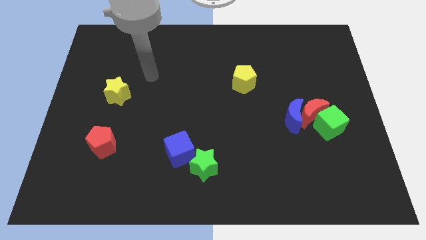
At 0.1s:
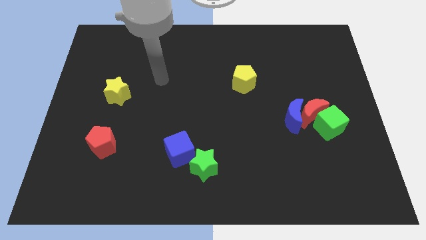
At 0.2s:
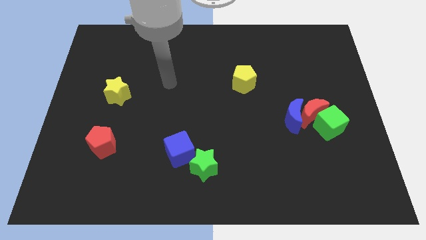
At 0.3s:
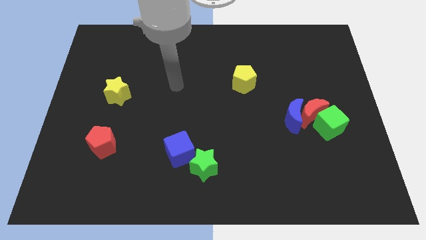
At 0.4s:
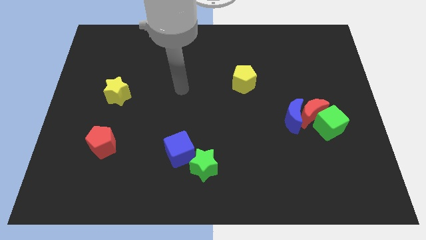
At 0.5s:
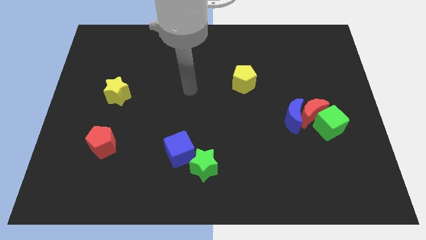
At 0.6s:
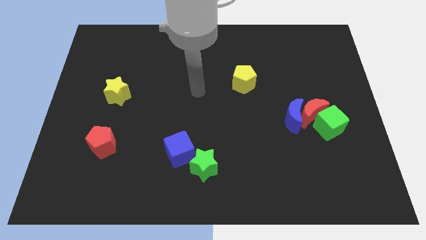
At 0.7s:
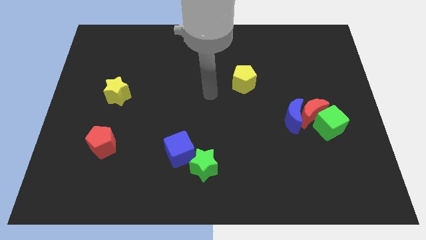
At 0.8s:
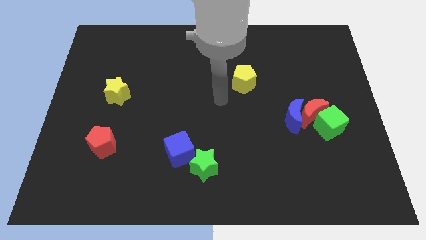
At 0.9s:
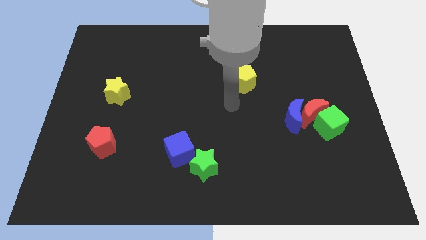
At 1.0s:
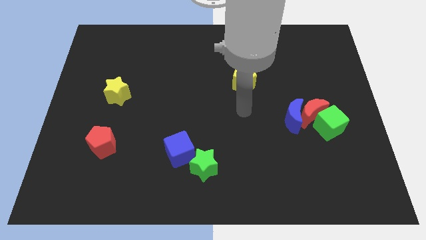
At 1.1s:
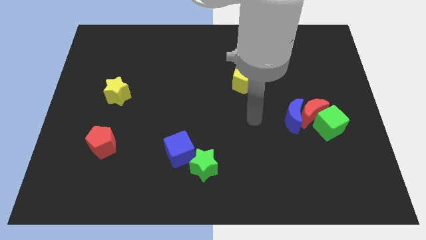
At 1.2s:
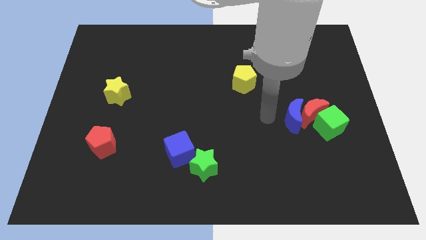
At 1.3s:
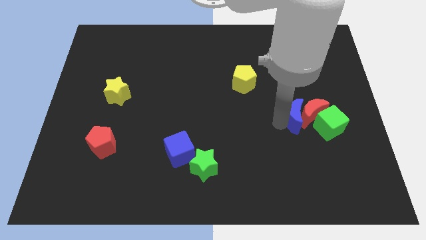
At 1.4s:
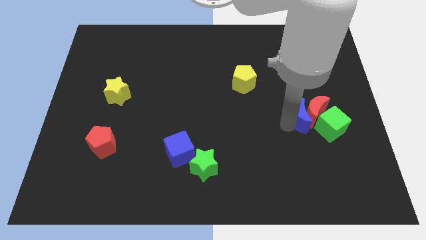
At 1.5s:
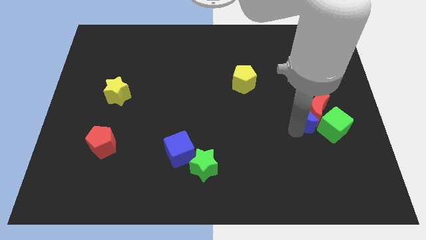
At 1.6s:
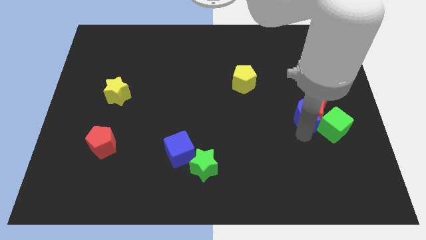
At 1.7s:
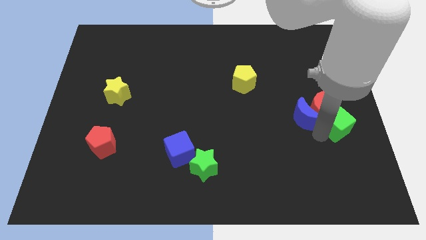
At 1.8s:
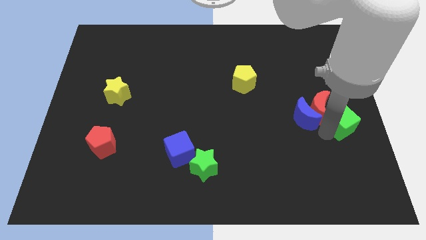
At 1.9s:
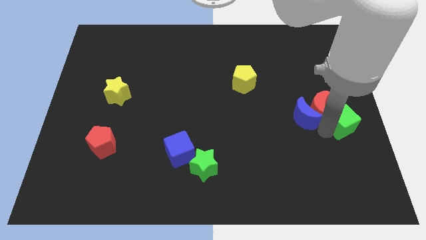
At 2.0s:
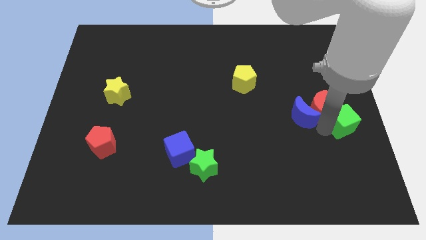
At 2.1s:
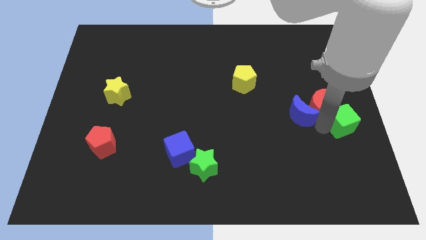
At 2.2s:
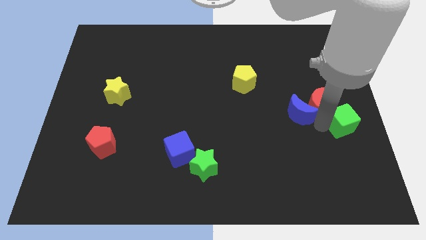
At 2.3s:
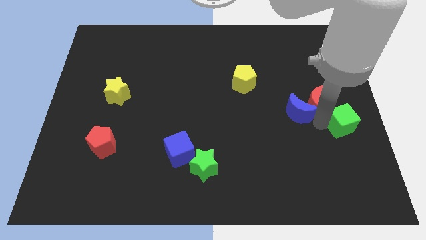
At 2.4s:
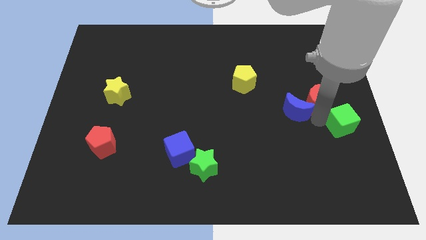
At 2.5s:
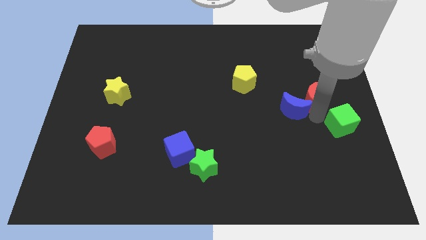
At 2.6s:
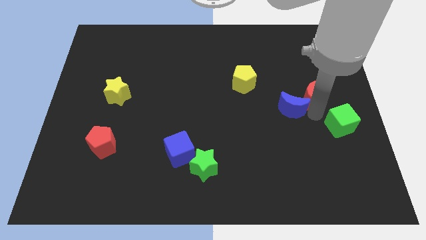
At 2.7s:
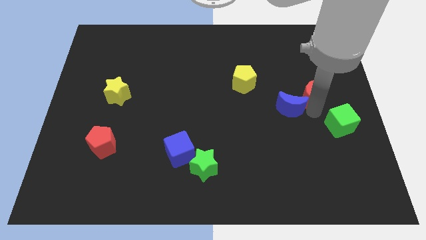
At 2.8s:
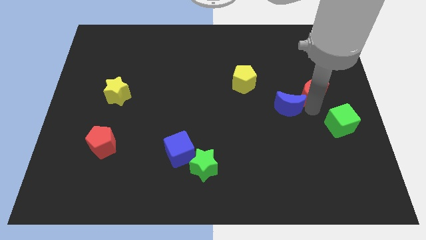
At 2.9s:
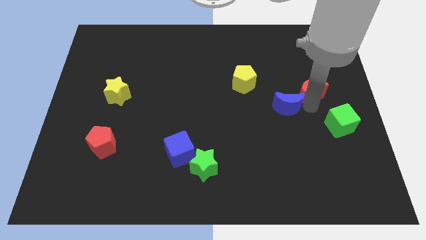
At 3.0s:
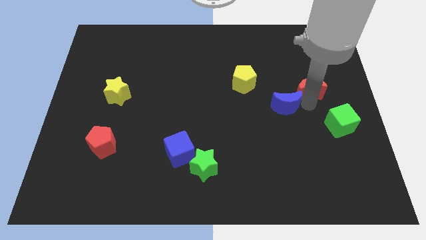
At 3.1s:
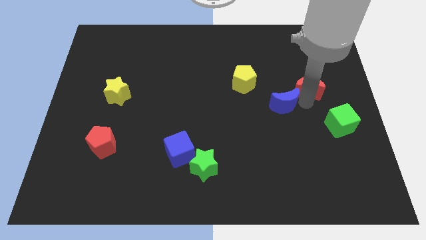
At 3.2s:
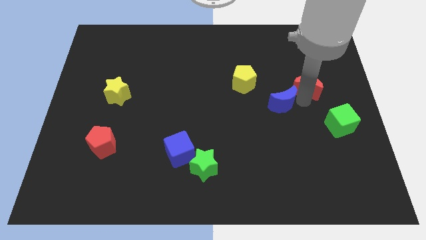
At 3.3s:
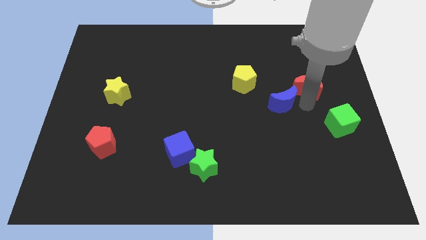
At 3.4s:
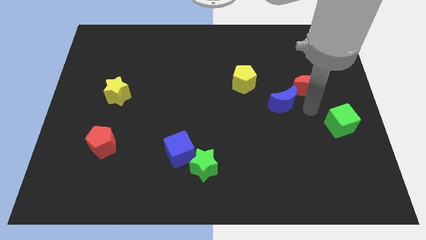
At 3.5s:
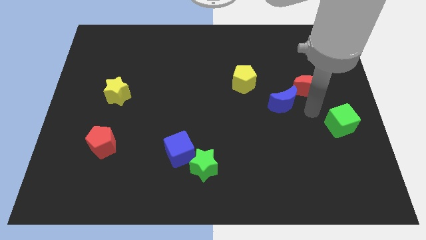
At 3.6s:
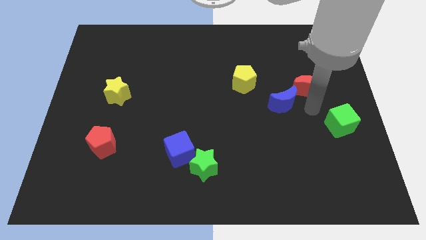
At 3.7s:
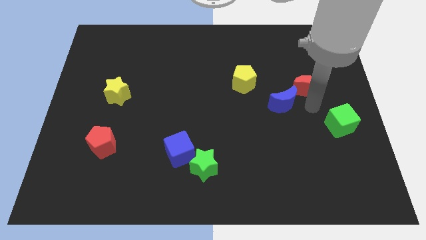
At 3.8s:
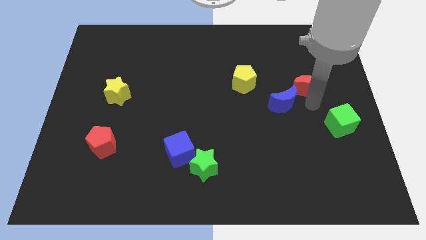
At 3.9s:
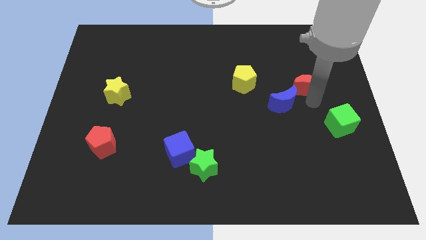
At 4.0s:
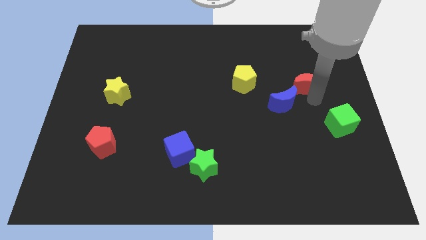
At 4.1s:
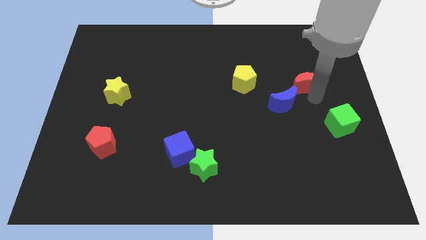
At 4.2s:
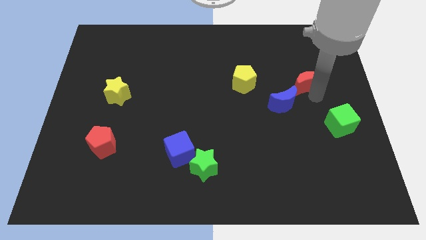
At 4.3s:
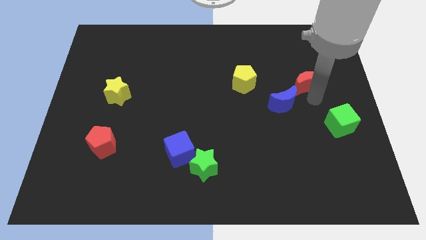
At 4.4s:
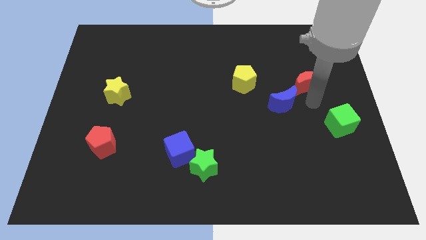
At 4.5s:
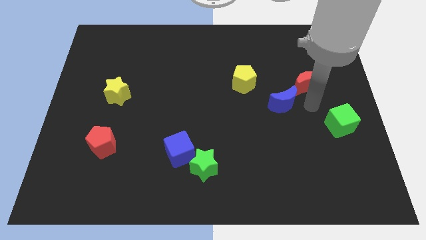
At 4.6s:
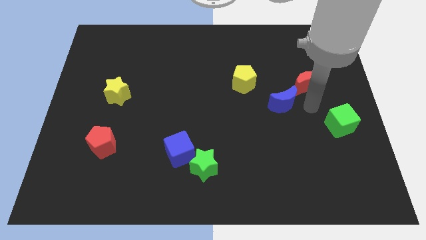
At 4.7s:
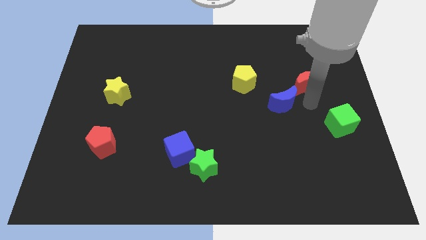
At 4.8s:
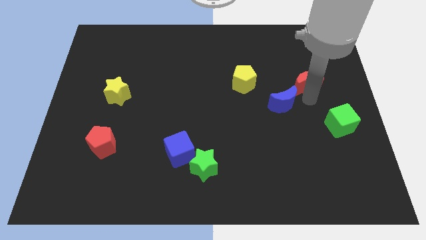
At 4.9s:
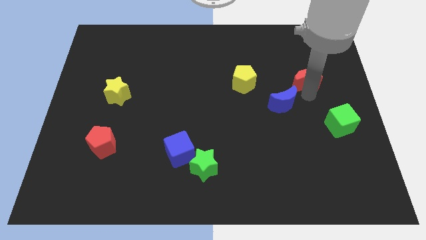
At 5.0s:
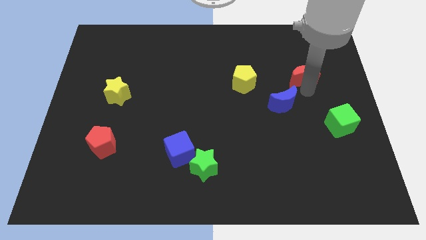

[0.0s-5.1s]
move the red moon away from the blue moon and green cube

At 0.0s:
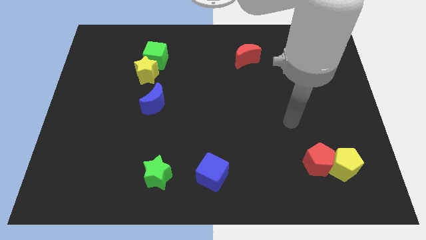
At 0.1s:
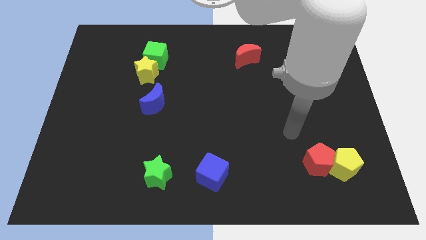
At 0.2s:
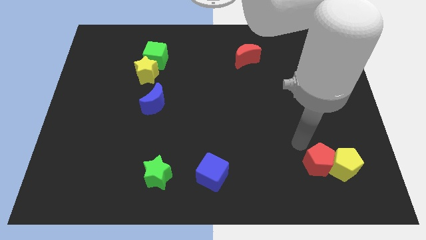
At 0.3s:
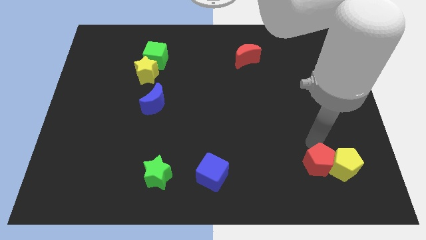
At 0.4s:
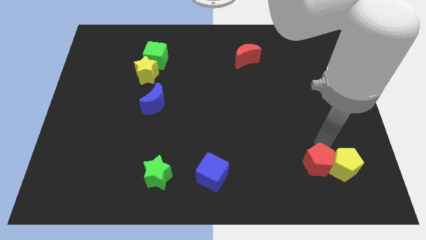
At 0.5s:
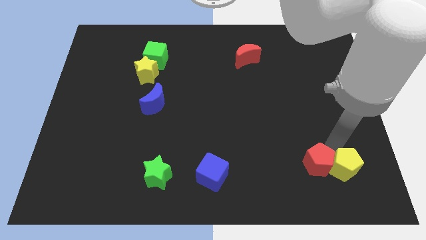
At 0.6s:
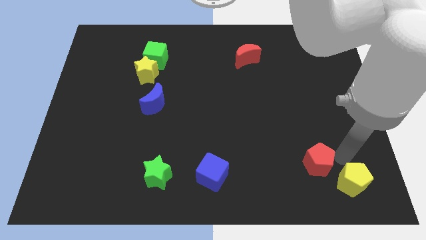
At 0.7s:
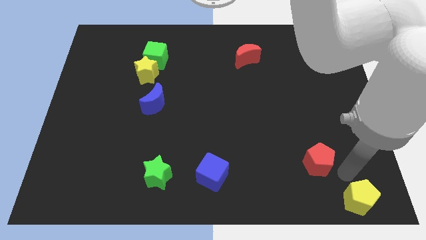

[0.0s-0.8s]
pull the red pentagon apart from the yellow pentagon

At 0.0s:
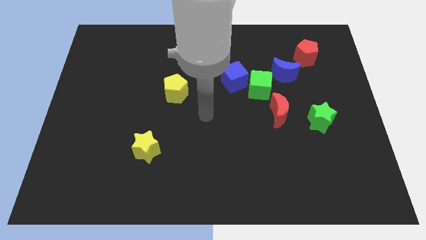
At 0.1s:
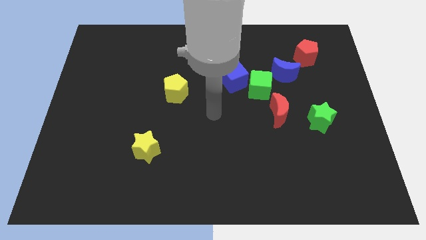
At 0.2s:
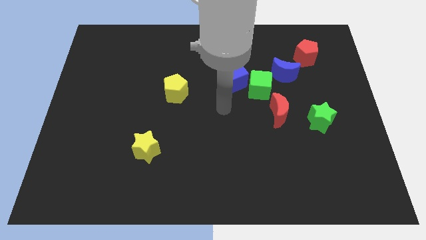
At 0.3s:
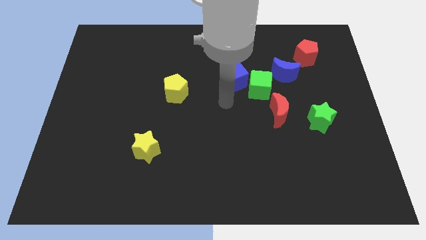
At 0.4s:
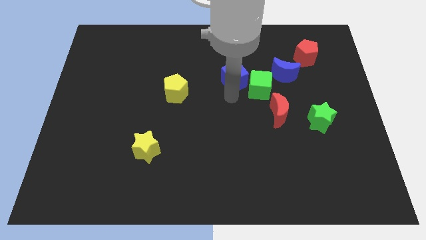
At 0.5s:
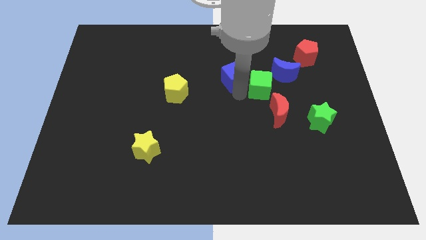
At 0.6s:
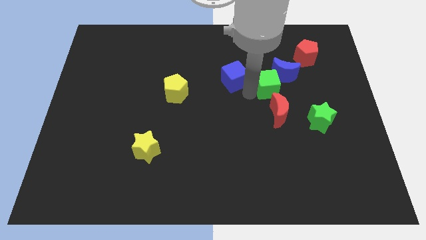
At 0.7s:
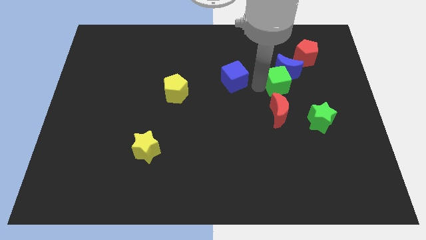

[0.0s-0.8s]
move the blue cube away from the green cube

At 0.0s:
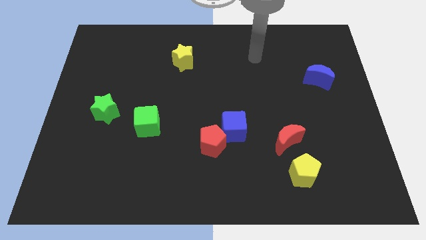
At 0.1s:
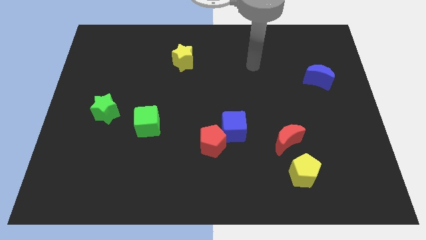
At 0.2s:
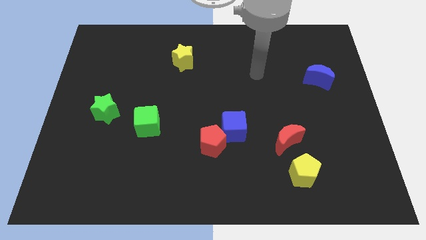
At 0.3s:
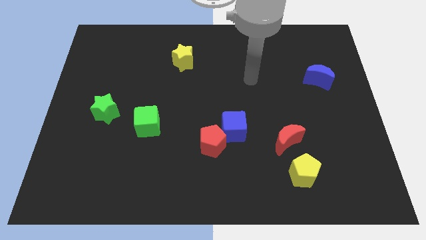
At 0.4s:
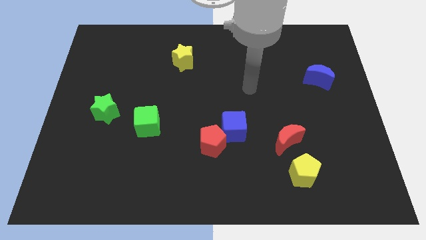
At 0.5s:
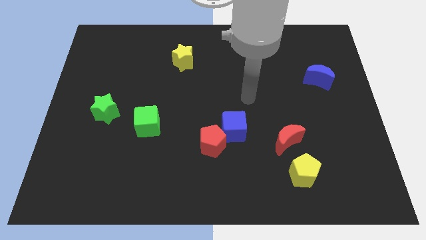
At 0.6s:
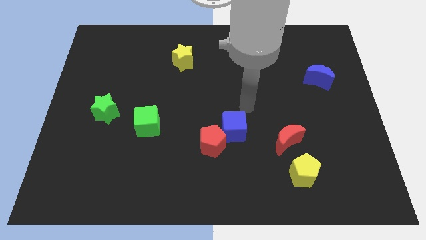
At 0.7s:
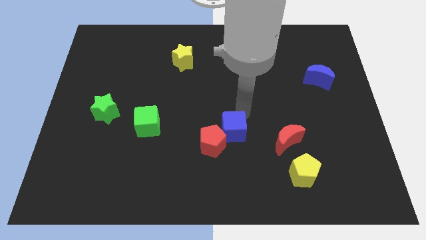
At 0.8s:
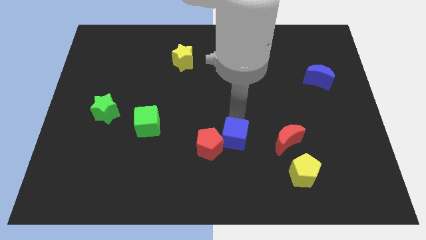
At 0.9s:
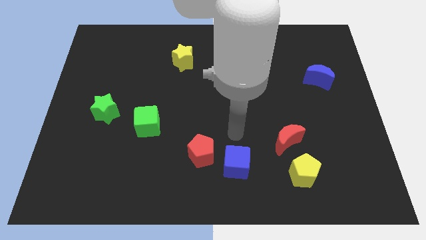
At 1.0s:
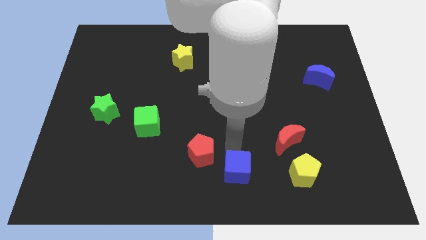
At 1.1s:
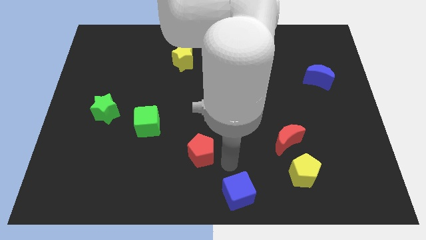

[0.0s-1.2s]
move the red pentagon away from the blue cube

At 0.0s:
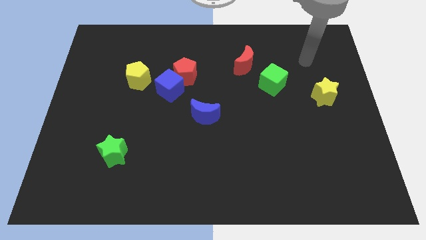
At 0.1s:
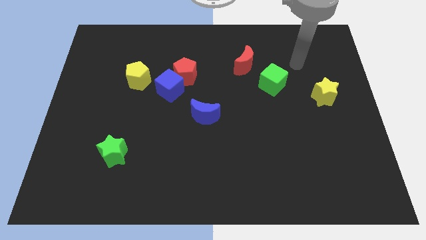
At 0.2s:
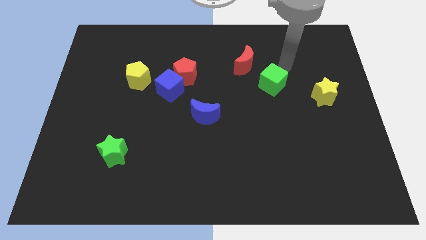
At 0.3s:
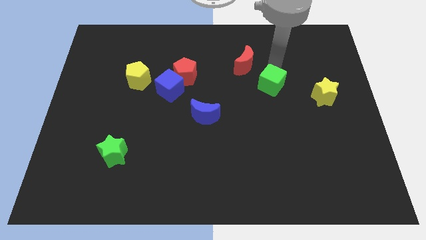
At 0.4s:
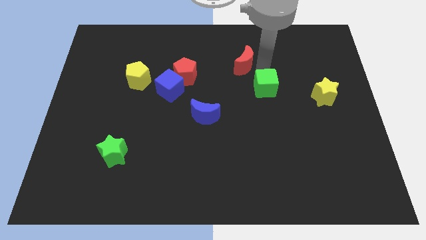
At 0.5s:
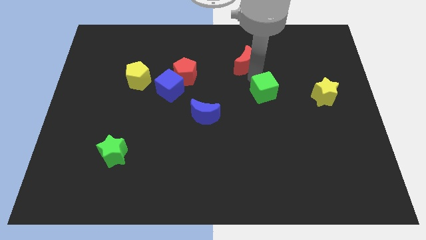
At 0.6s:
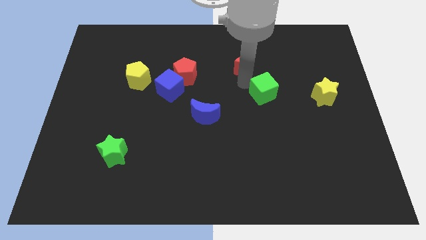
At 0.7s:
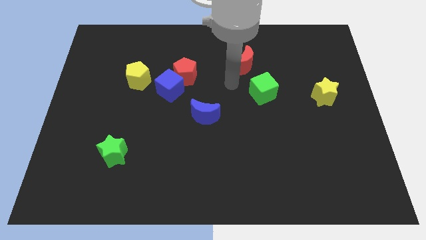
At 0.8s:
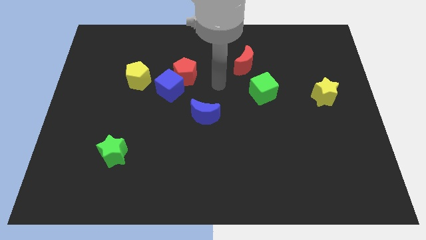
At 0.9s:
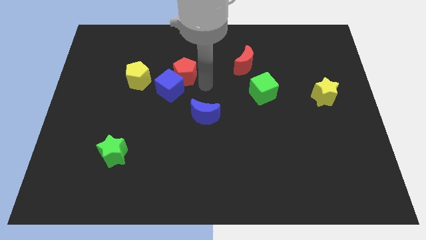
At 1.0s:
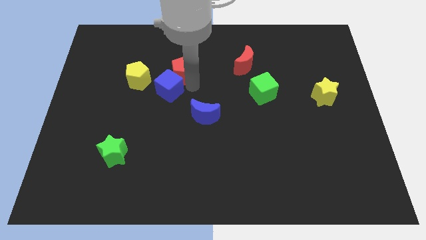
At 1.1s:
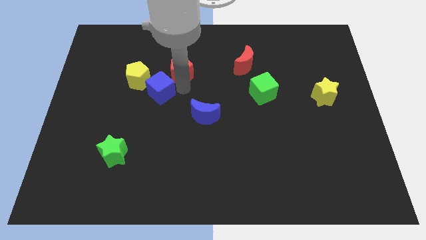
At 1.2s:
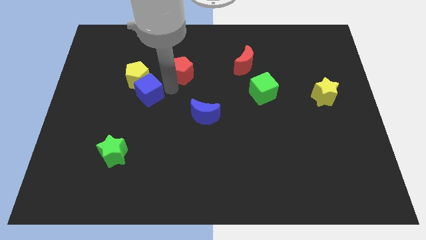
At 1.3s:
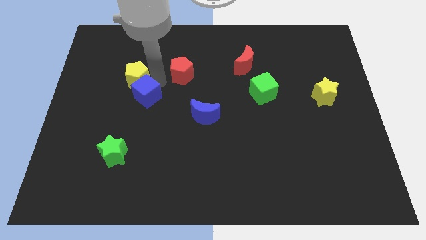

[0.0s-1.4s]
pull the red pentagon apart from the blue cube
